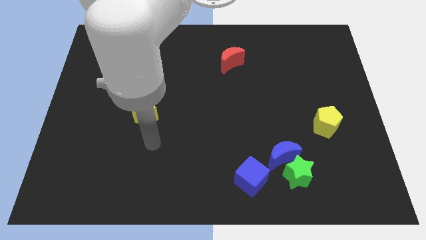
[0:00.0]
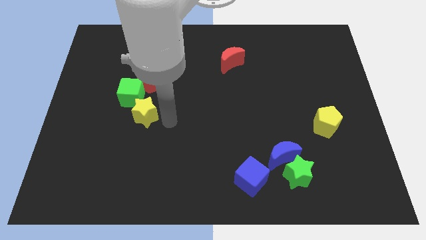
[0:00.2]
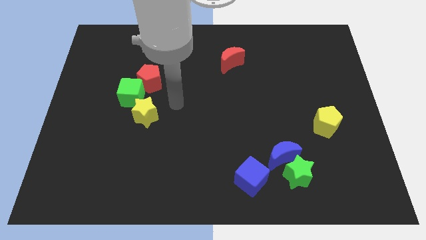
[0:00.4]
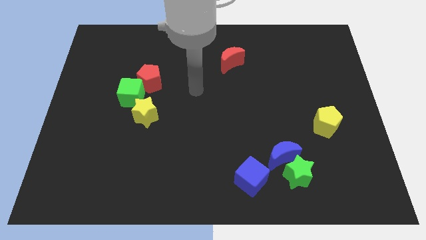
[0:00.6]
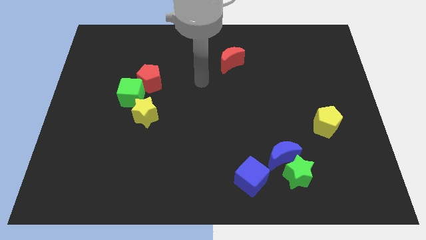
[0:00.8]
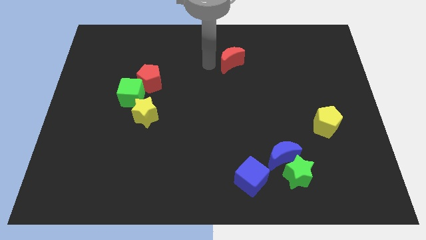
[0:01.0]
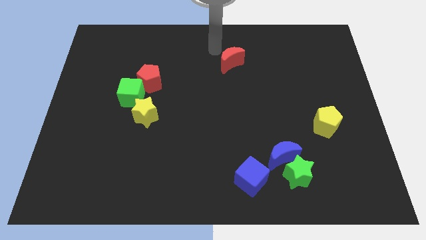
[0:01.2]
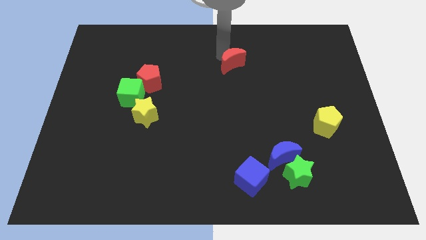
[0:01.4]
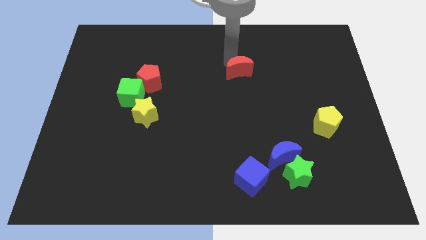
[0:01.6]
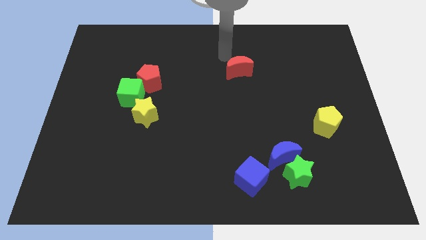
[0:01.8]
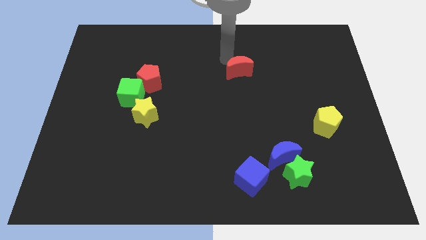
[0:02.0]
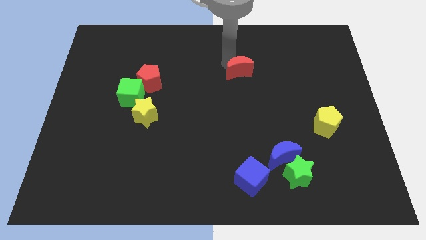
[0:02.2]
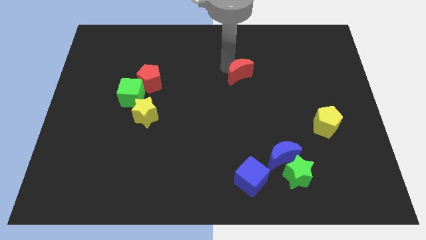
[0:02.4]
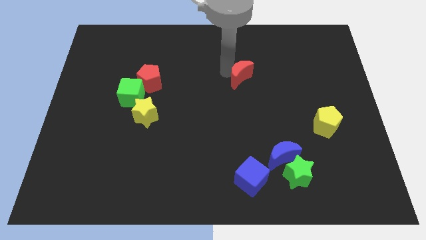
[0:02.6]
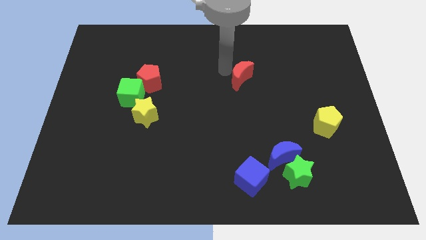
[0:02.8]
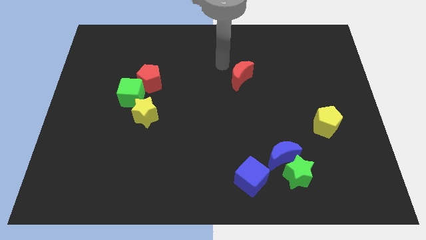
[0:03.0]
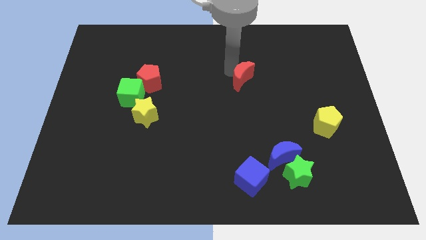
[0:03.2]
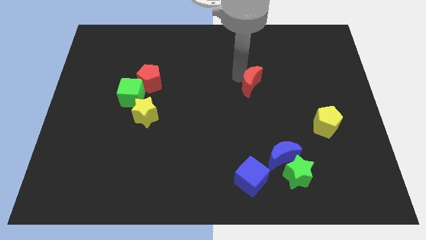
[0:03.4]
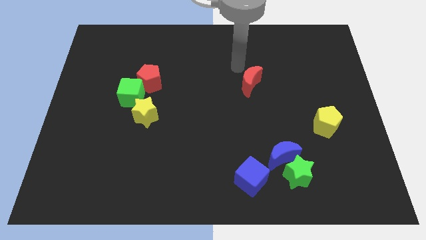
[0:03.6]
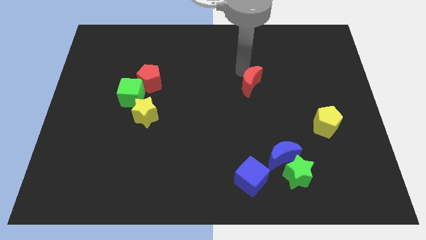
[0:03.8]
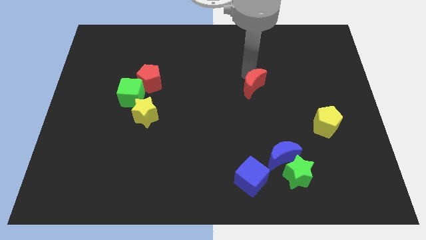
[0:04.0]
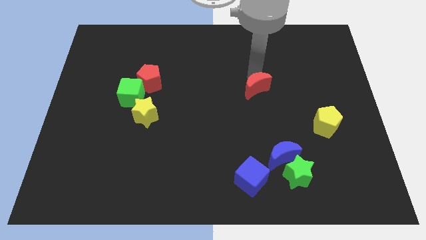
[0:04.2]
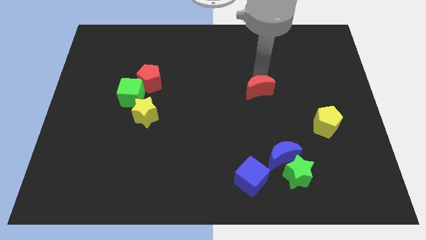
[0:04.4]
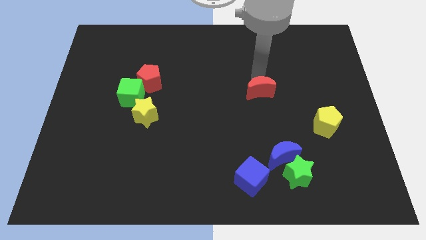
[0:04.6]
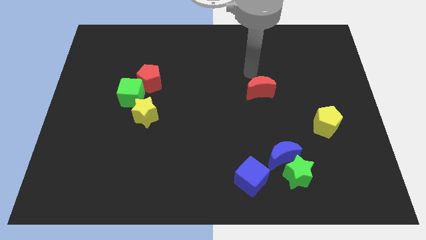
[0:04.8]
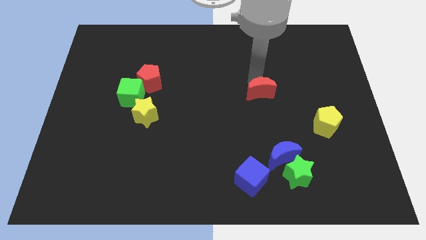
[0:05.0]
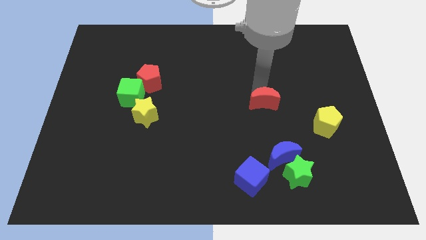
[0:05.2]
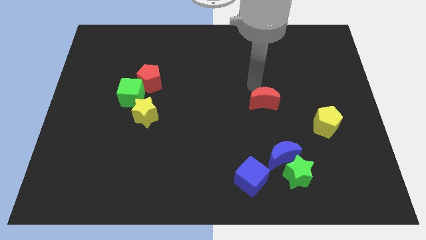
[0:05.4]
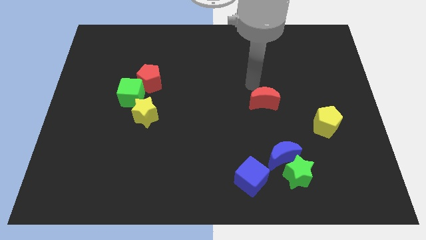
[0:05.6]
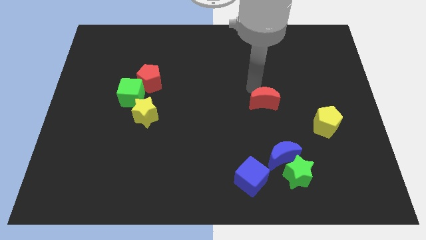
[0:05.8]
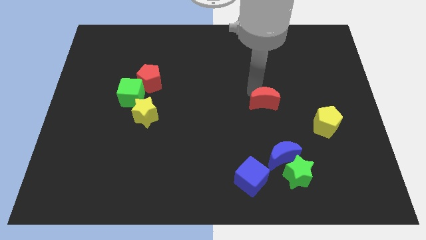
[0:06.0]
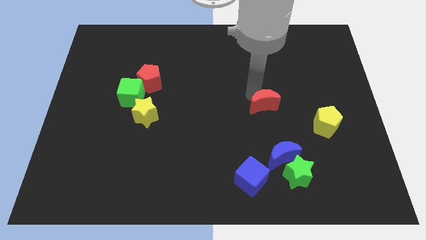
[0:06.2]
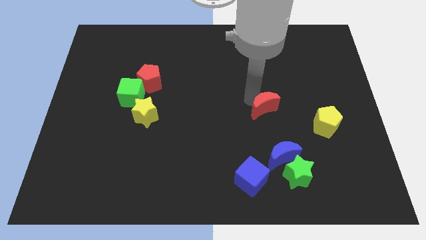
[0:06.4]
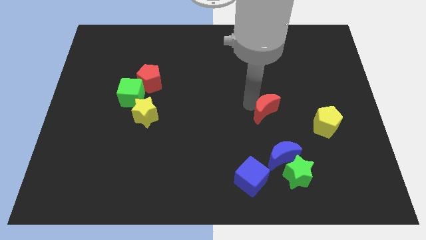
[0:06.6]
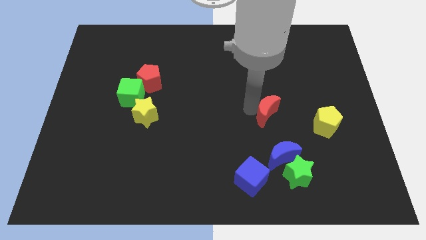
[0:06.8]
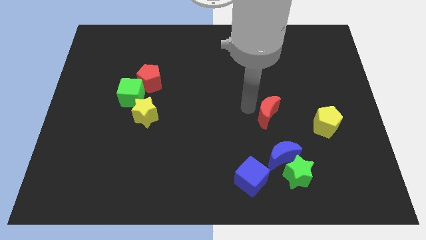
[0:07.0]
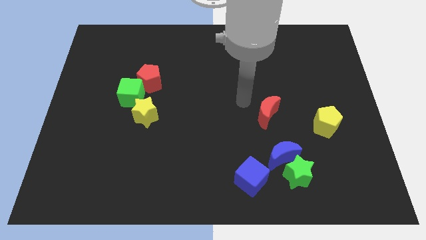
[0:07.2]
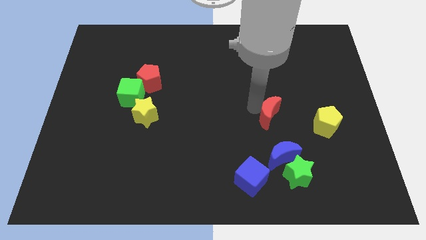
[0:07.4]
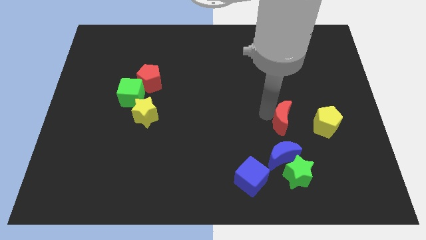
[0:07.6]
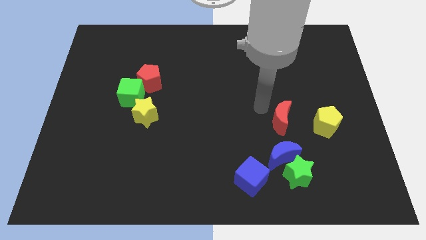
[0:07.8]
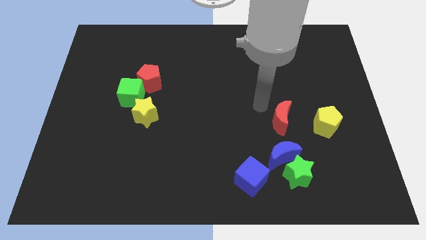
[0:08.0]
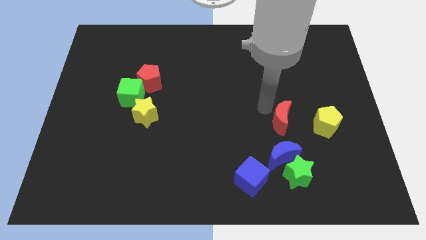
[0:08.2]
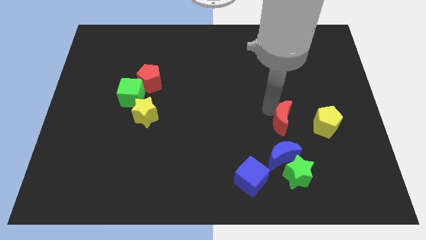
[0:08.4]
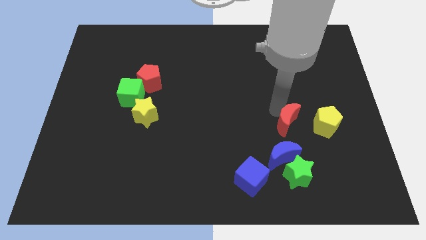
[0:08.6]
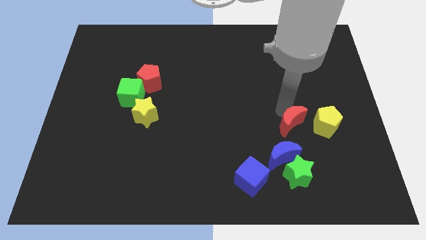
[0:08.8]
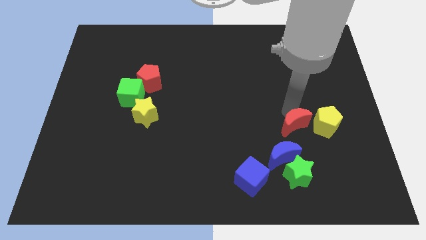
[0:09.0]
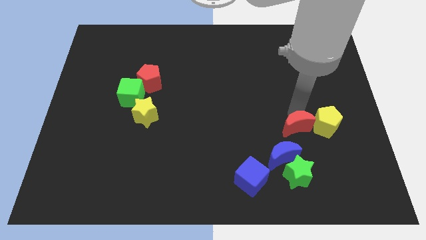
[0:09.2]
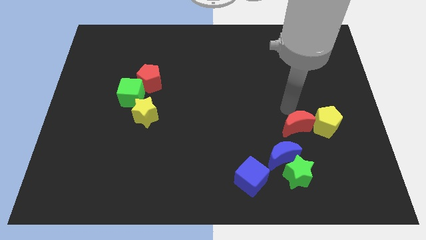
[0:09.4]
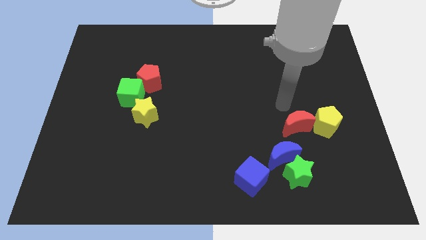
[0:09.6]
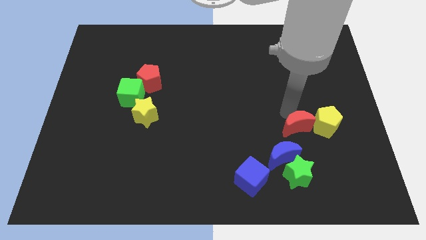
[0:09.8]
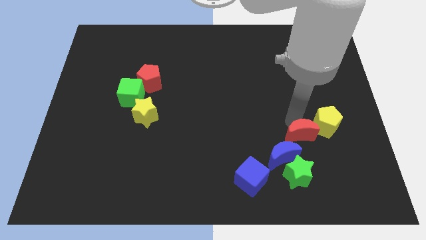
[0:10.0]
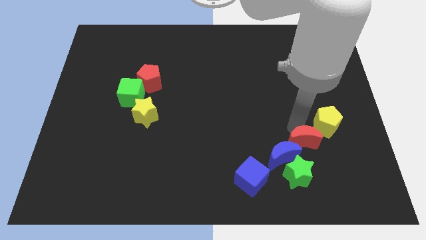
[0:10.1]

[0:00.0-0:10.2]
move the red moon to the top right of the green star

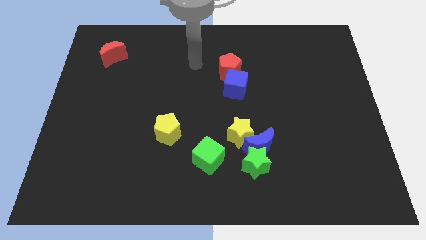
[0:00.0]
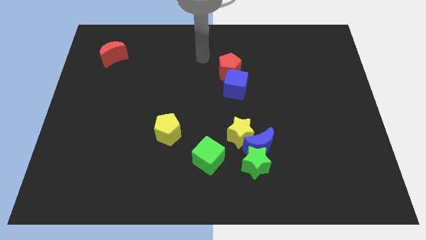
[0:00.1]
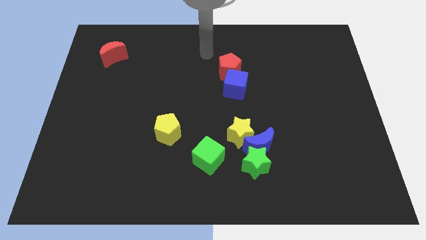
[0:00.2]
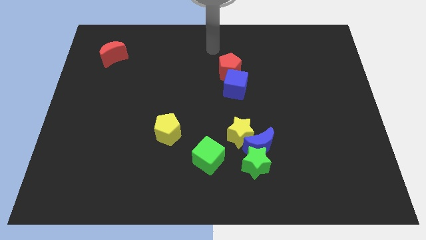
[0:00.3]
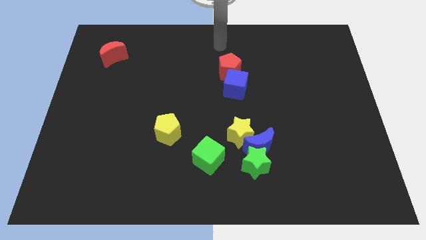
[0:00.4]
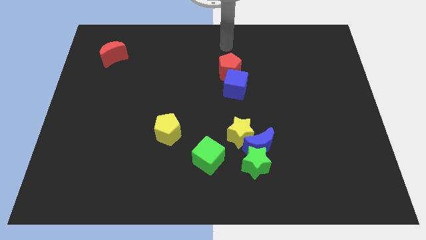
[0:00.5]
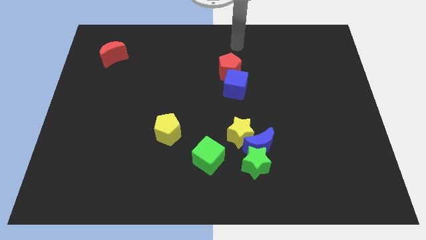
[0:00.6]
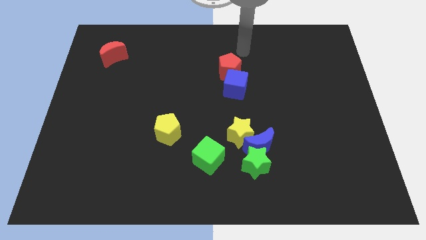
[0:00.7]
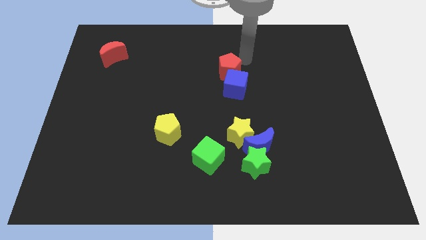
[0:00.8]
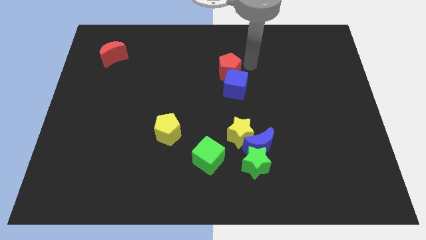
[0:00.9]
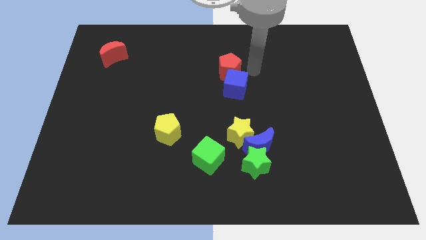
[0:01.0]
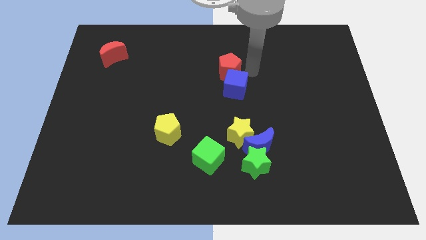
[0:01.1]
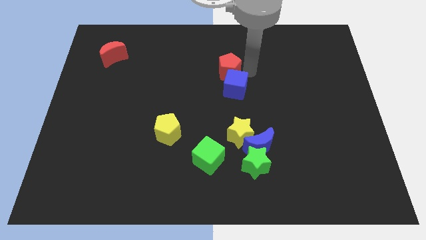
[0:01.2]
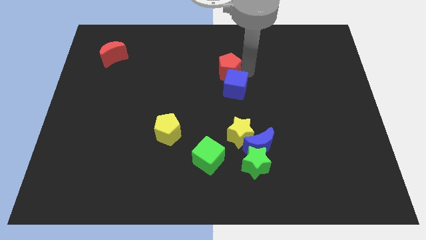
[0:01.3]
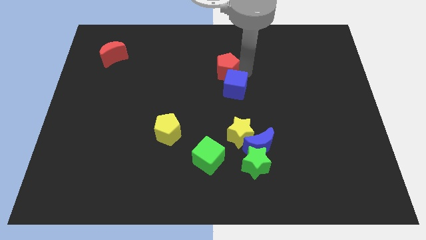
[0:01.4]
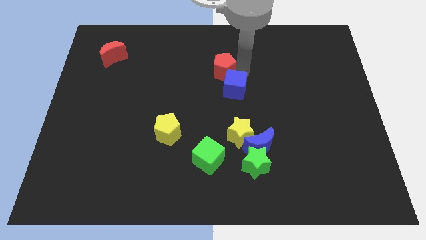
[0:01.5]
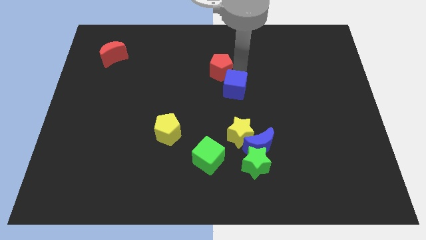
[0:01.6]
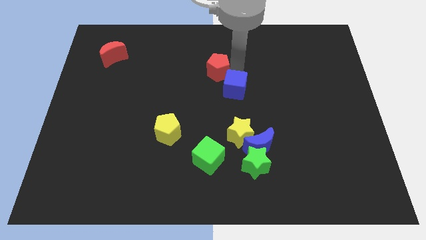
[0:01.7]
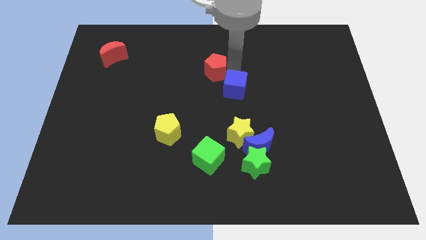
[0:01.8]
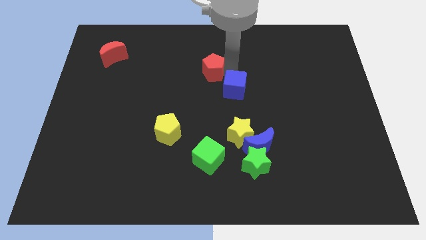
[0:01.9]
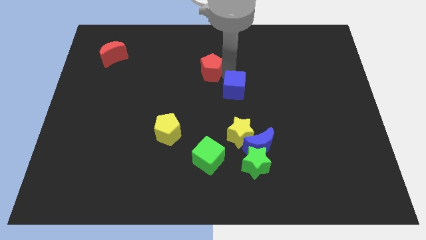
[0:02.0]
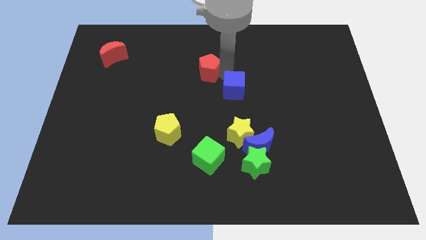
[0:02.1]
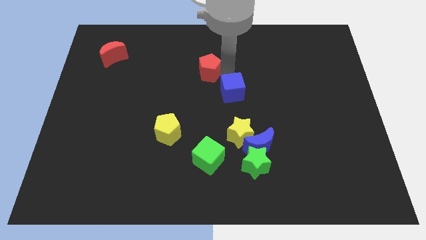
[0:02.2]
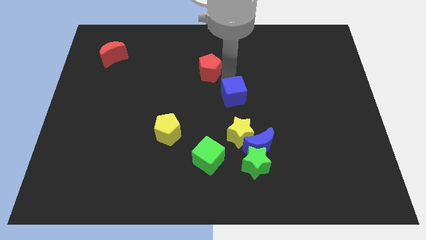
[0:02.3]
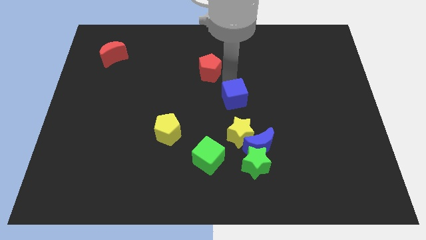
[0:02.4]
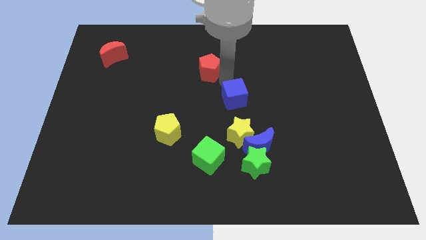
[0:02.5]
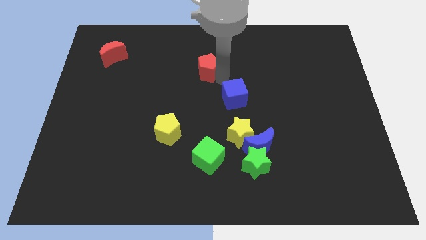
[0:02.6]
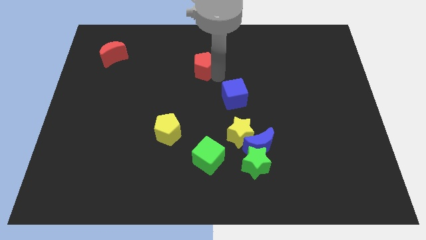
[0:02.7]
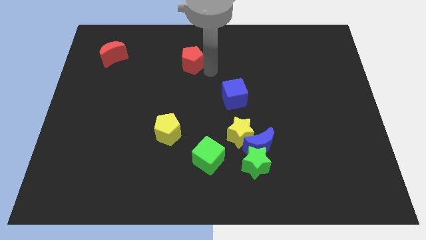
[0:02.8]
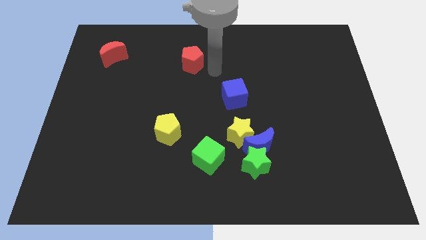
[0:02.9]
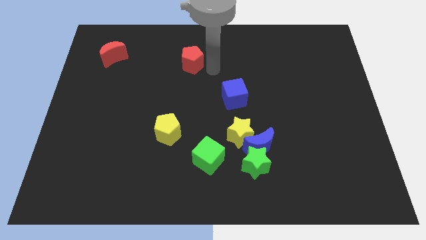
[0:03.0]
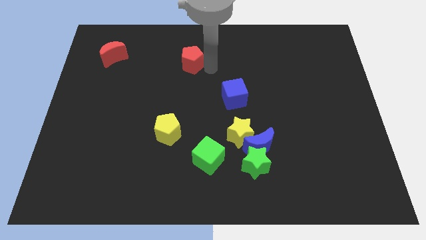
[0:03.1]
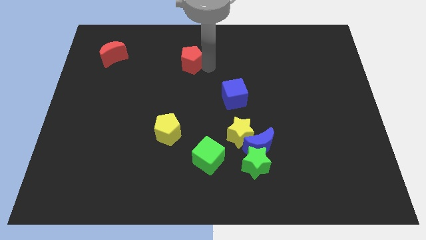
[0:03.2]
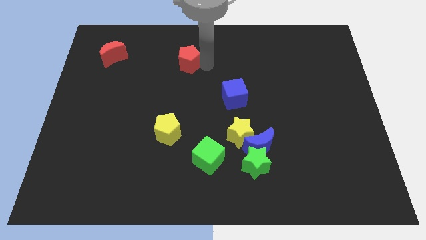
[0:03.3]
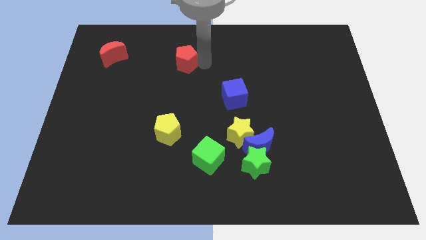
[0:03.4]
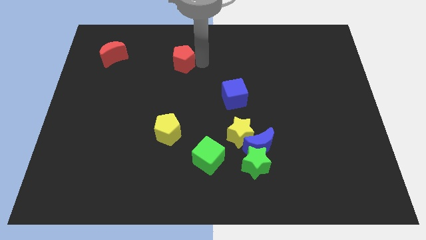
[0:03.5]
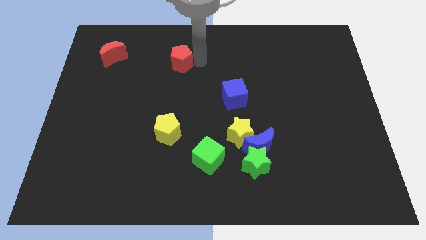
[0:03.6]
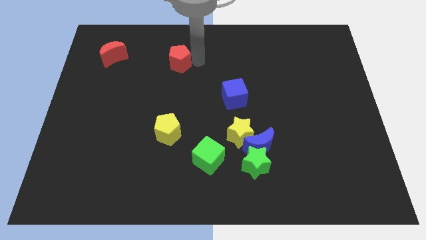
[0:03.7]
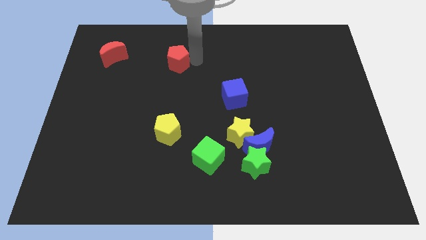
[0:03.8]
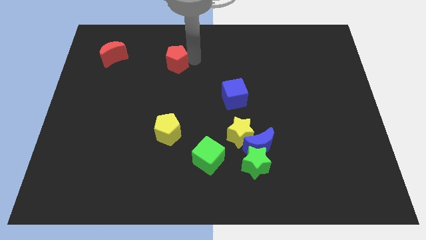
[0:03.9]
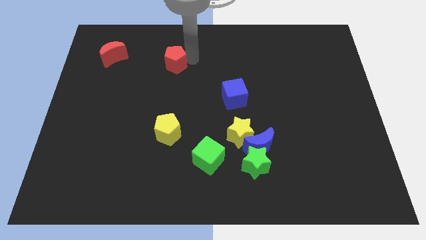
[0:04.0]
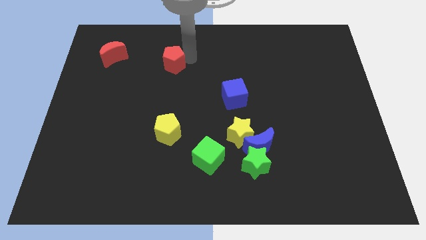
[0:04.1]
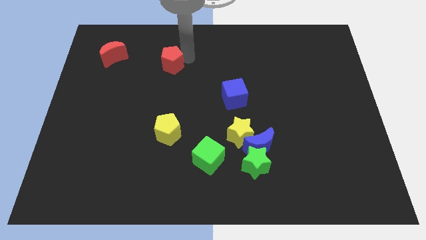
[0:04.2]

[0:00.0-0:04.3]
push the red pentagon right of the red moon
